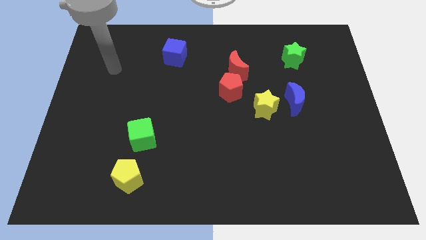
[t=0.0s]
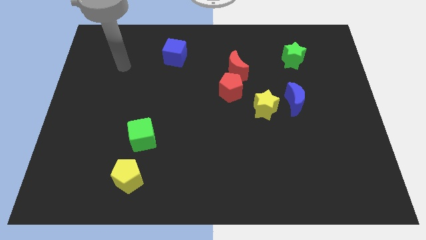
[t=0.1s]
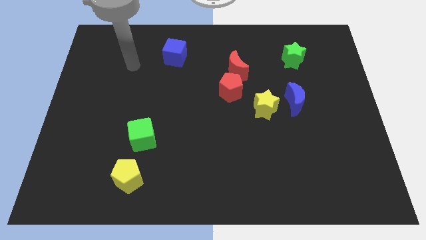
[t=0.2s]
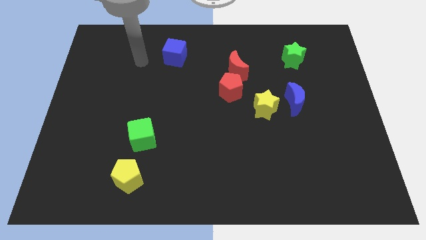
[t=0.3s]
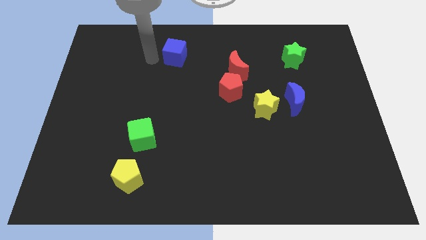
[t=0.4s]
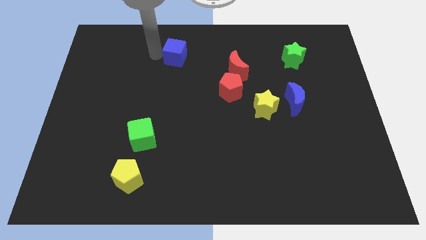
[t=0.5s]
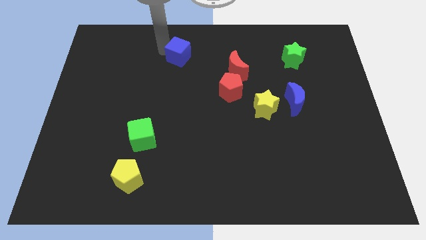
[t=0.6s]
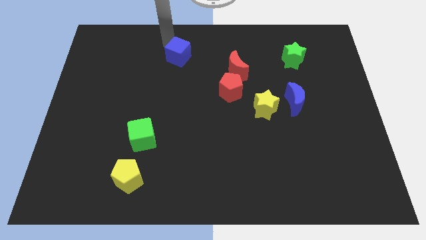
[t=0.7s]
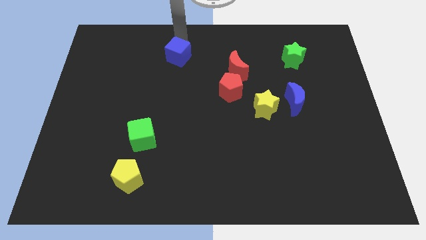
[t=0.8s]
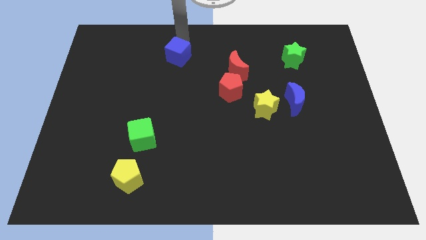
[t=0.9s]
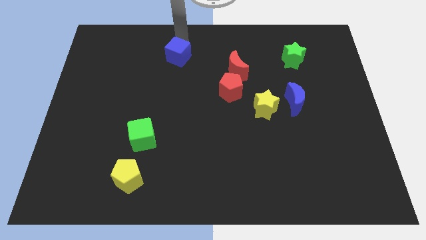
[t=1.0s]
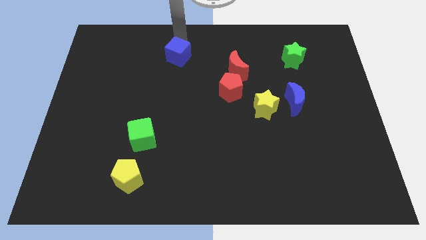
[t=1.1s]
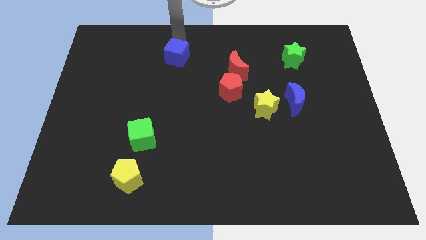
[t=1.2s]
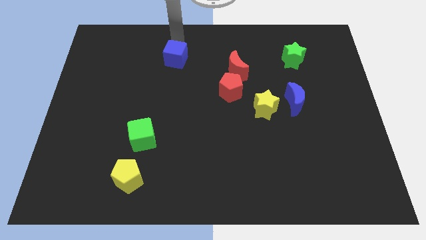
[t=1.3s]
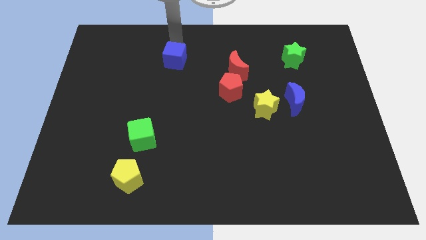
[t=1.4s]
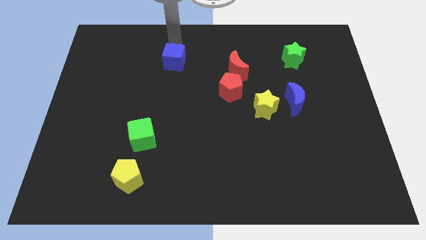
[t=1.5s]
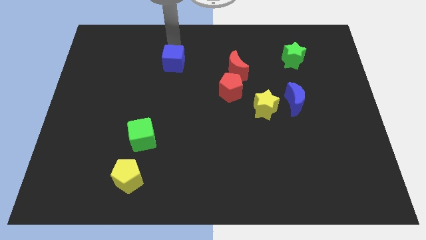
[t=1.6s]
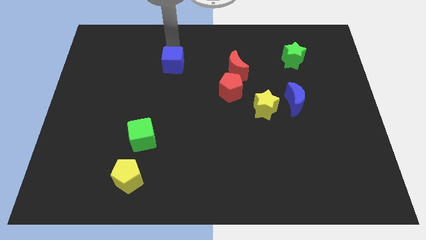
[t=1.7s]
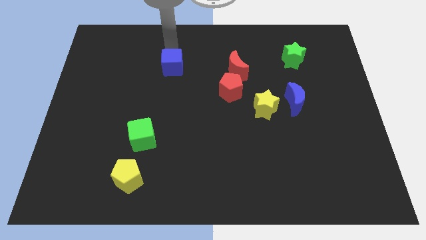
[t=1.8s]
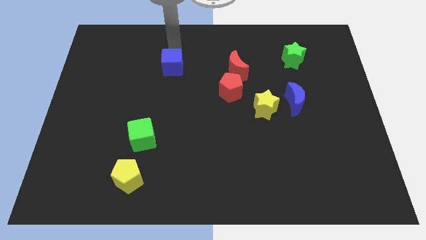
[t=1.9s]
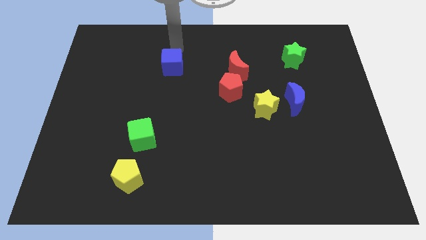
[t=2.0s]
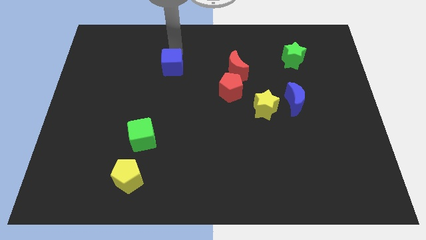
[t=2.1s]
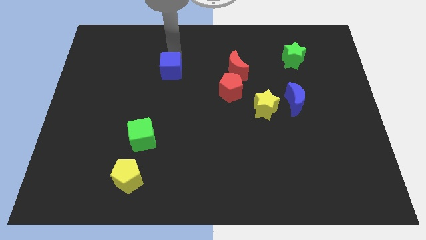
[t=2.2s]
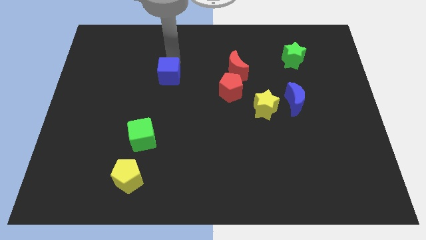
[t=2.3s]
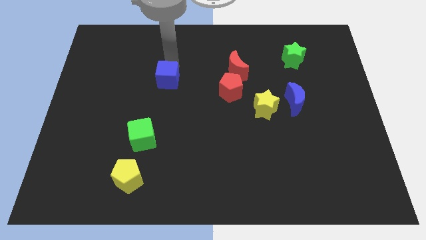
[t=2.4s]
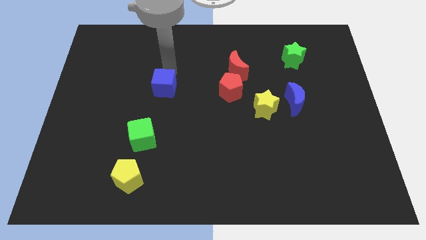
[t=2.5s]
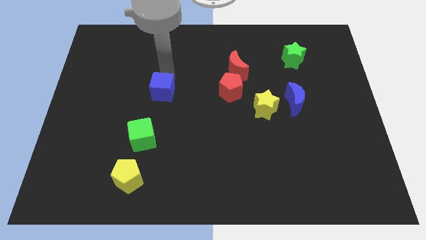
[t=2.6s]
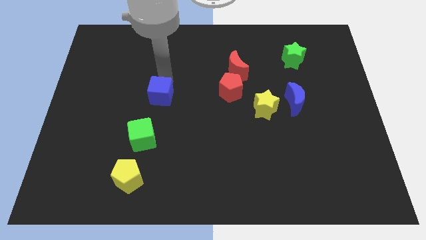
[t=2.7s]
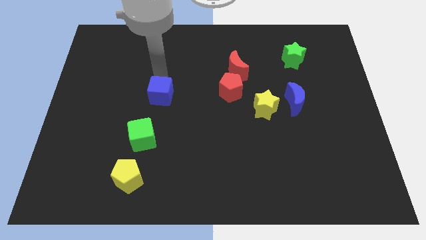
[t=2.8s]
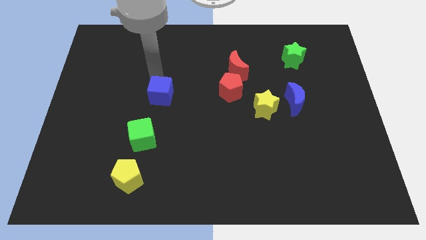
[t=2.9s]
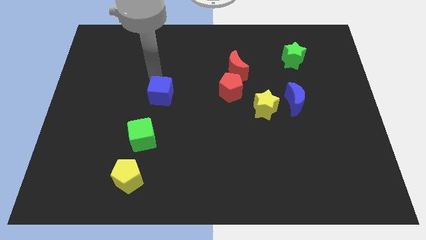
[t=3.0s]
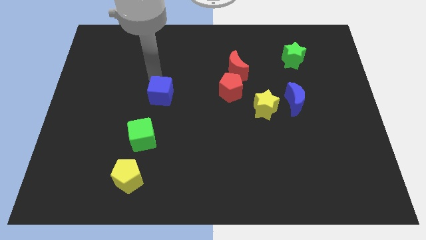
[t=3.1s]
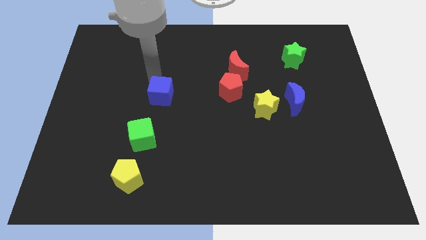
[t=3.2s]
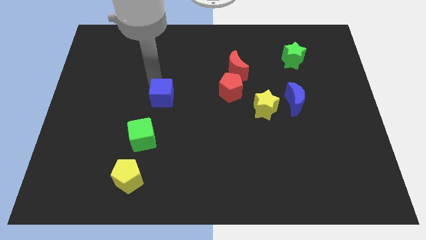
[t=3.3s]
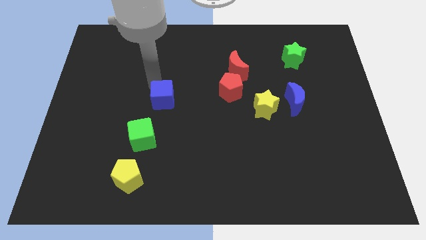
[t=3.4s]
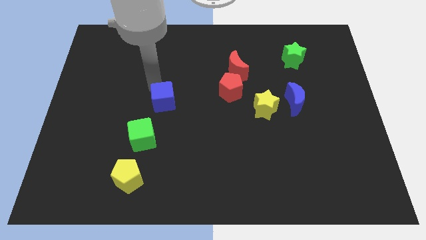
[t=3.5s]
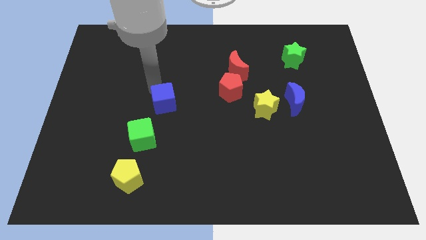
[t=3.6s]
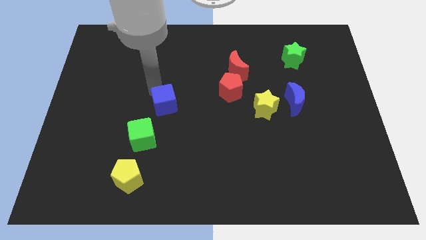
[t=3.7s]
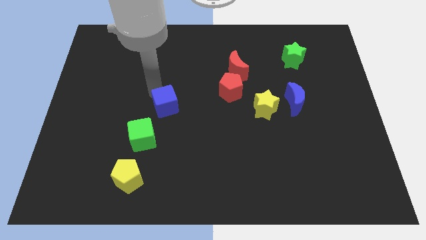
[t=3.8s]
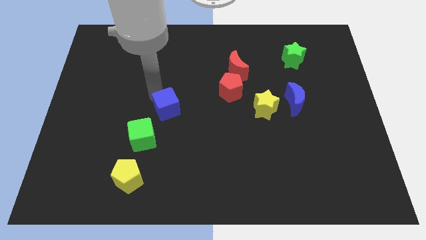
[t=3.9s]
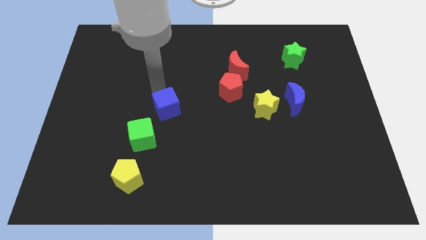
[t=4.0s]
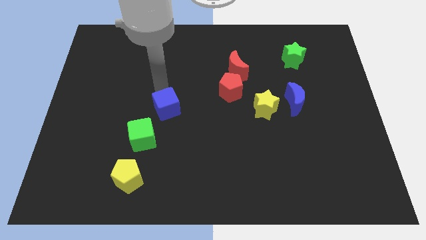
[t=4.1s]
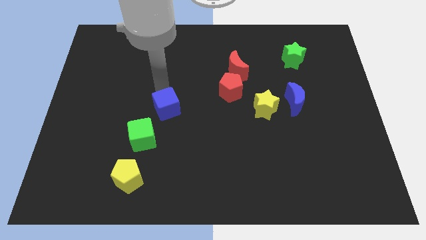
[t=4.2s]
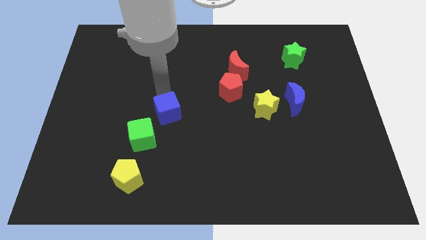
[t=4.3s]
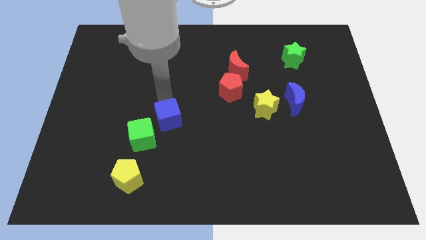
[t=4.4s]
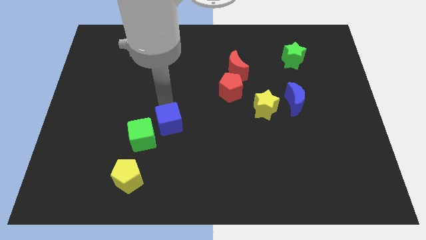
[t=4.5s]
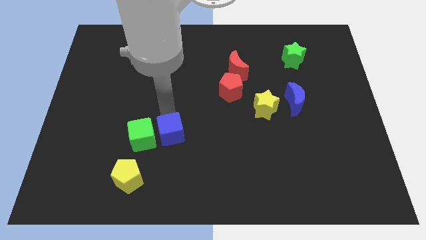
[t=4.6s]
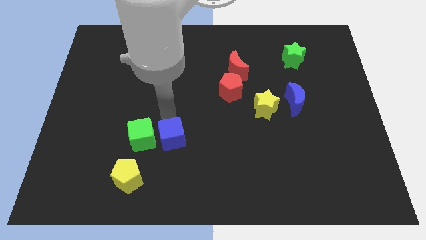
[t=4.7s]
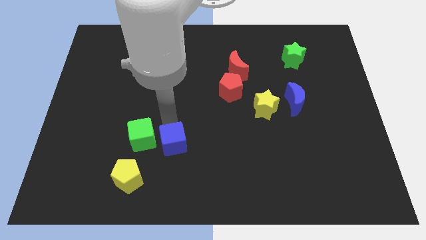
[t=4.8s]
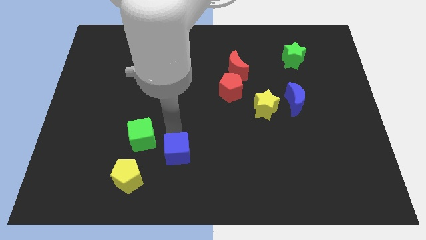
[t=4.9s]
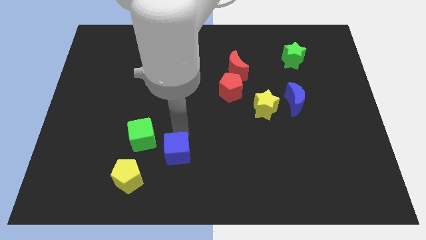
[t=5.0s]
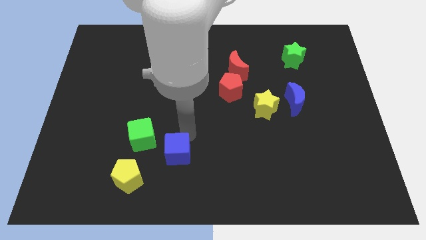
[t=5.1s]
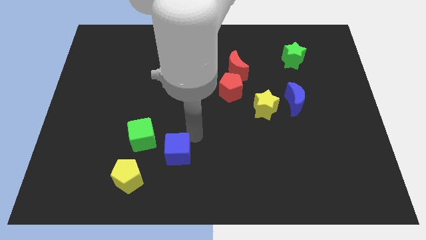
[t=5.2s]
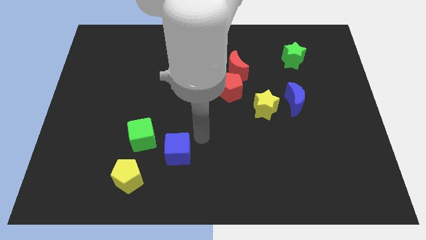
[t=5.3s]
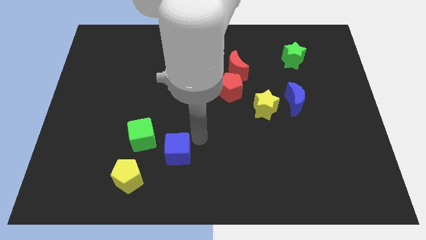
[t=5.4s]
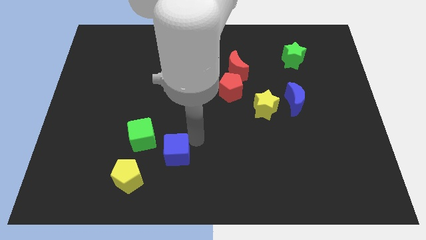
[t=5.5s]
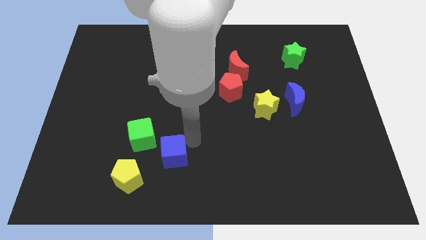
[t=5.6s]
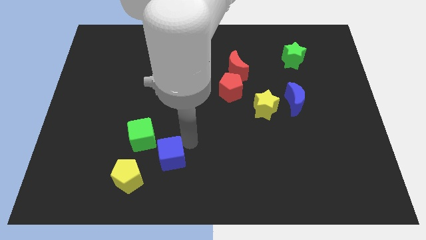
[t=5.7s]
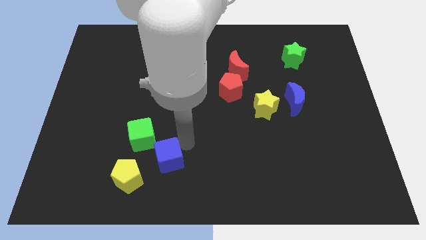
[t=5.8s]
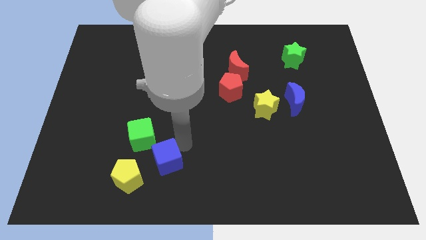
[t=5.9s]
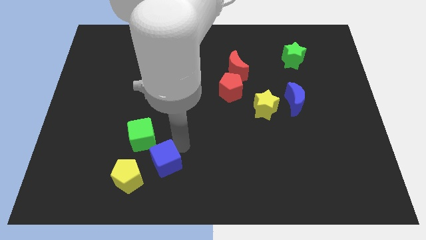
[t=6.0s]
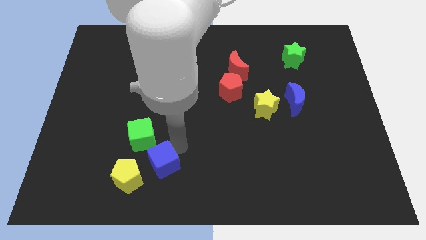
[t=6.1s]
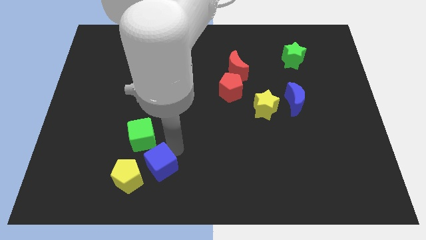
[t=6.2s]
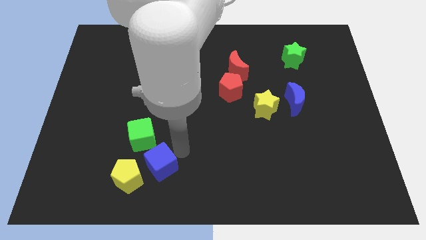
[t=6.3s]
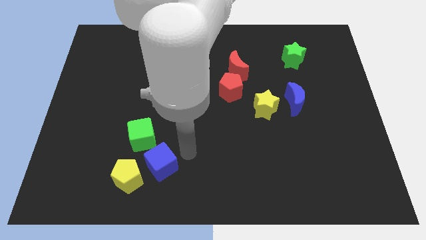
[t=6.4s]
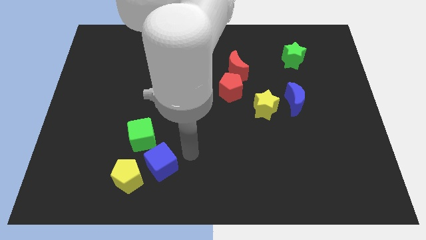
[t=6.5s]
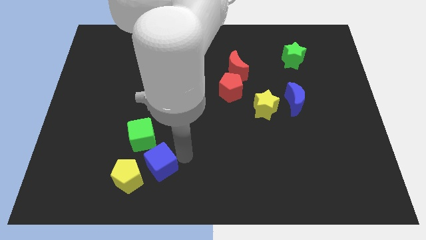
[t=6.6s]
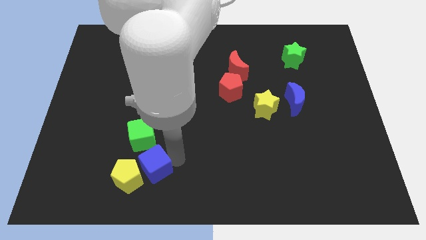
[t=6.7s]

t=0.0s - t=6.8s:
slide the blue cube to the yellow pentagon

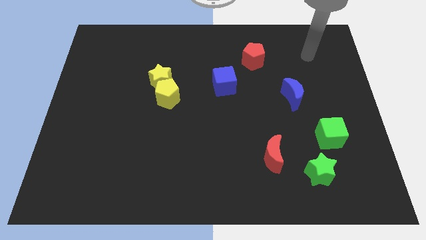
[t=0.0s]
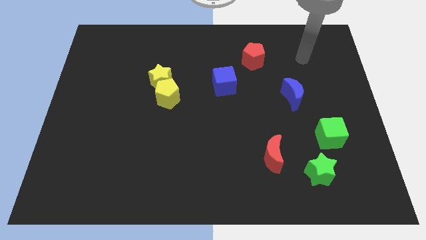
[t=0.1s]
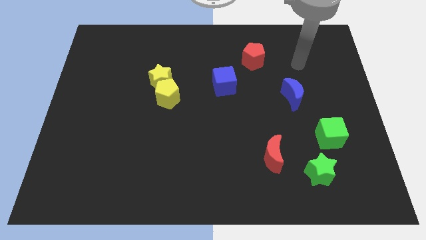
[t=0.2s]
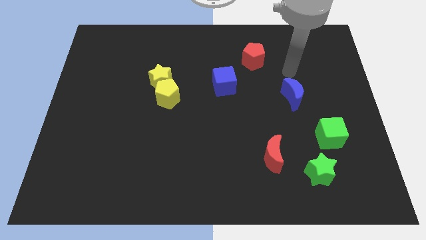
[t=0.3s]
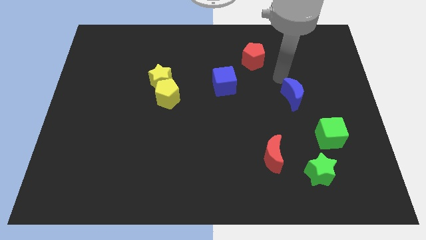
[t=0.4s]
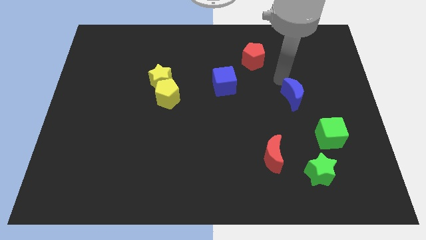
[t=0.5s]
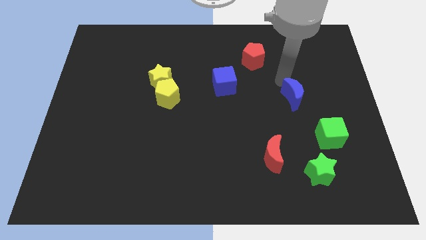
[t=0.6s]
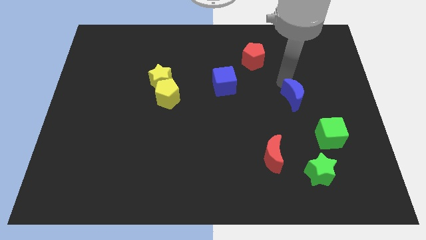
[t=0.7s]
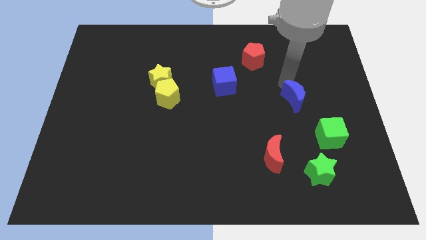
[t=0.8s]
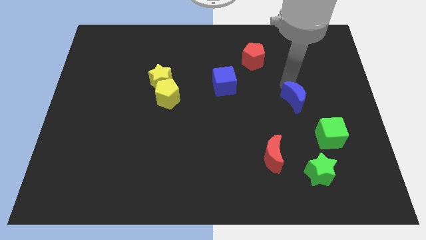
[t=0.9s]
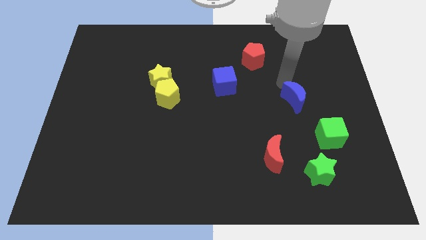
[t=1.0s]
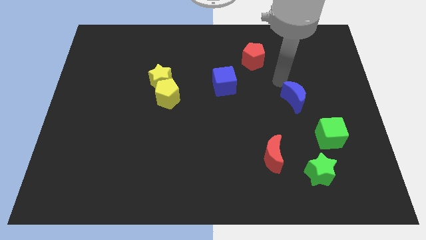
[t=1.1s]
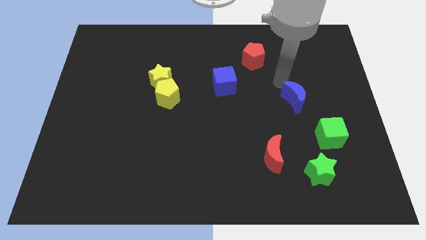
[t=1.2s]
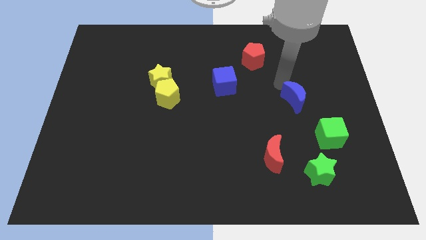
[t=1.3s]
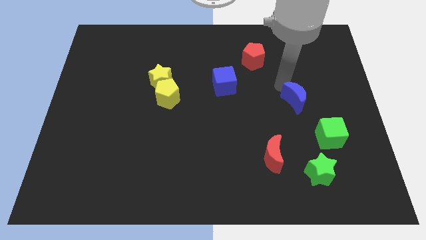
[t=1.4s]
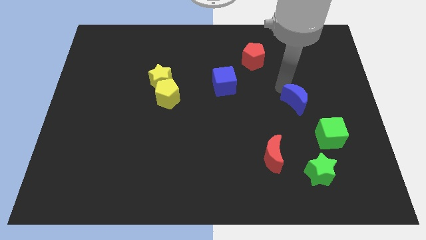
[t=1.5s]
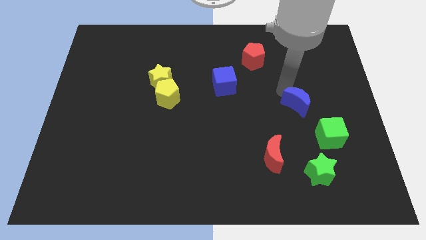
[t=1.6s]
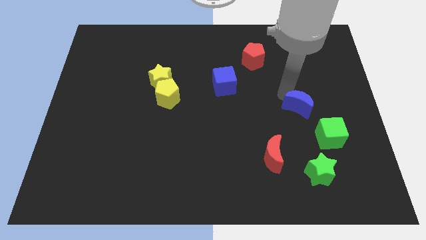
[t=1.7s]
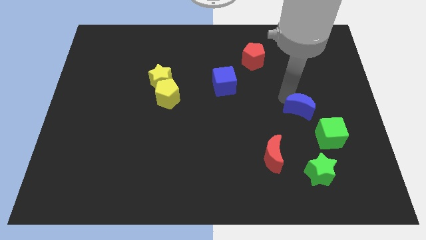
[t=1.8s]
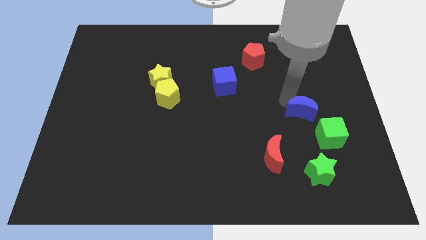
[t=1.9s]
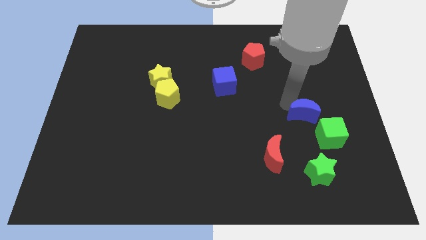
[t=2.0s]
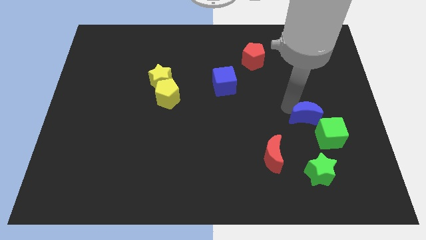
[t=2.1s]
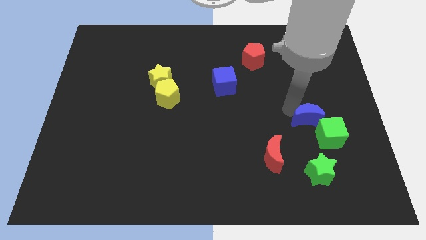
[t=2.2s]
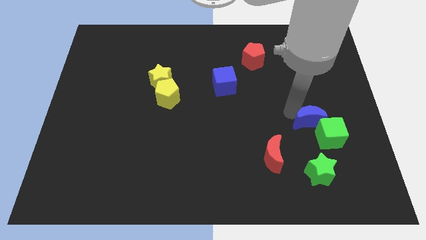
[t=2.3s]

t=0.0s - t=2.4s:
put the blue moon next to the green cube
